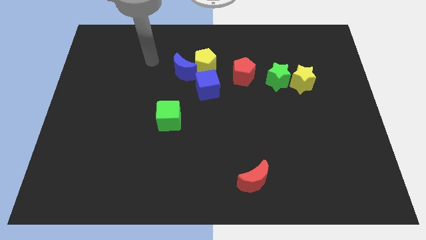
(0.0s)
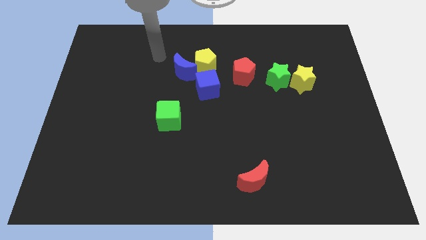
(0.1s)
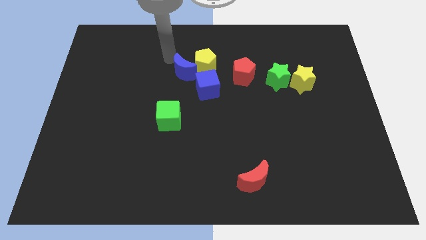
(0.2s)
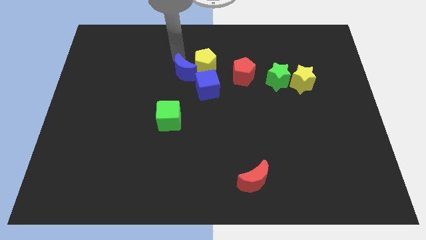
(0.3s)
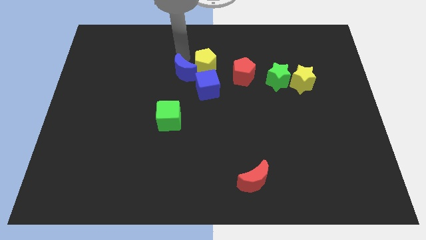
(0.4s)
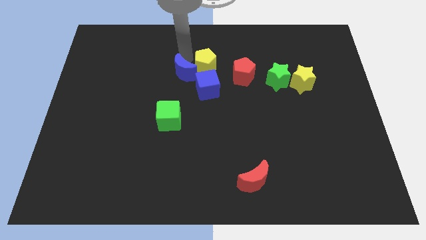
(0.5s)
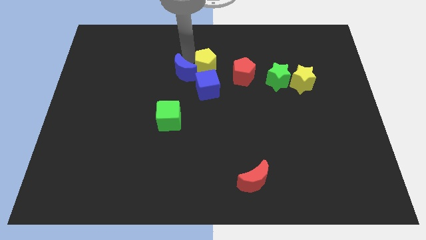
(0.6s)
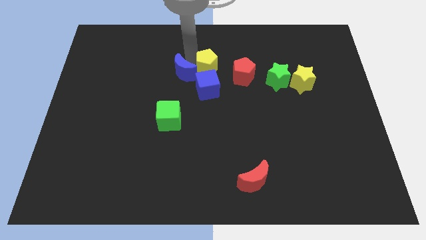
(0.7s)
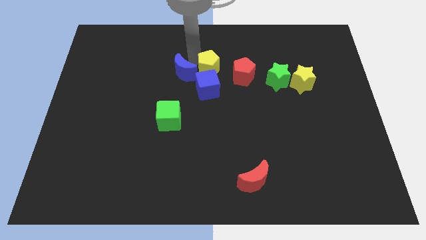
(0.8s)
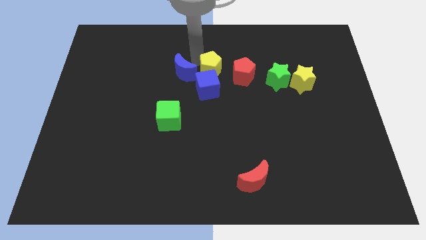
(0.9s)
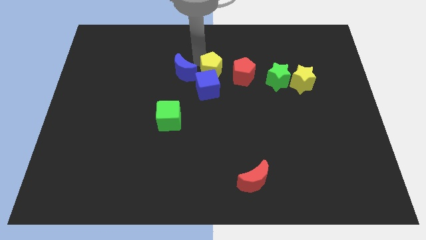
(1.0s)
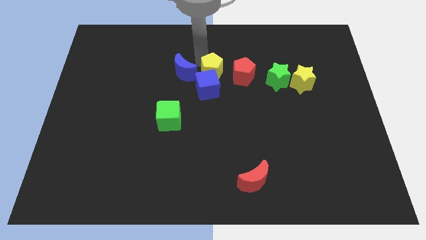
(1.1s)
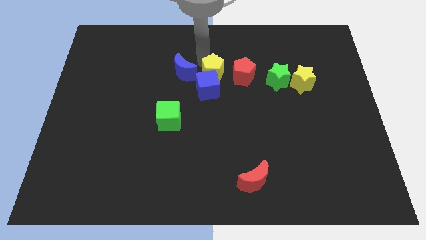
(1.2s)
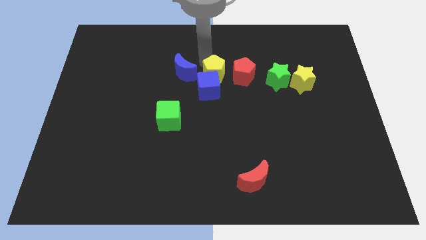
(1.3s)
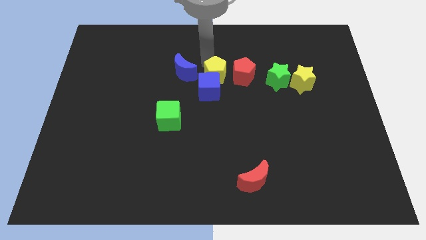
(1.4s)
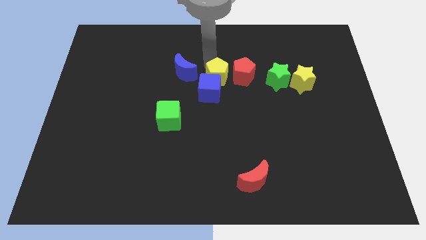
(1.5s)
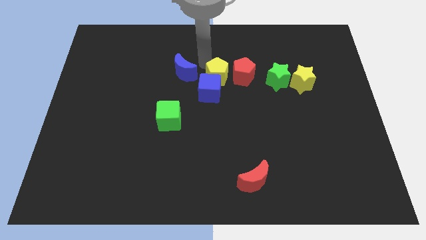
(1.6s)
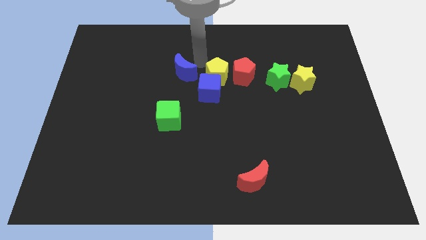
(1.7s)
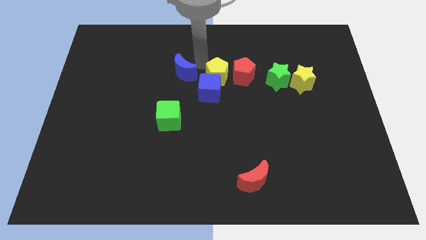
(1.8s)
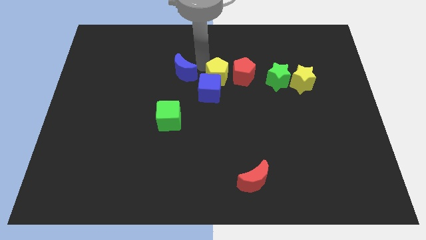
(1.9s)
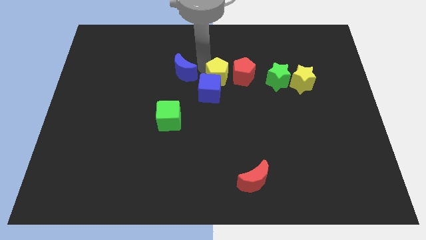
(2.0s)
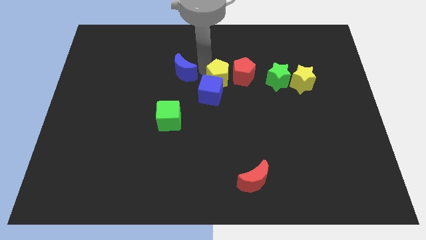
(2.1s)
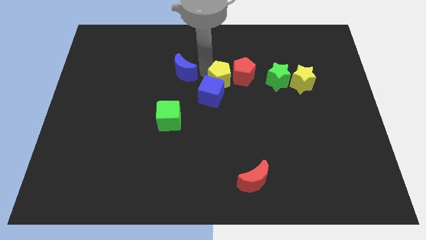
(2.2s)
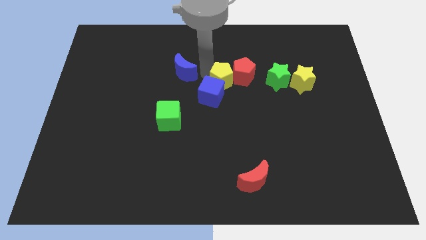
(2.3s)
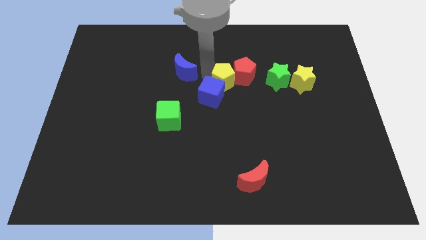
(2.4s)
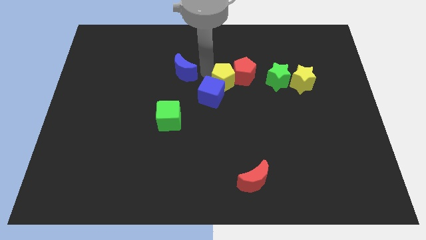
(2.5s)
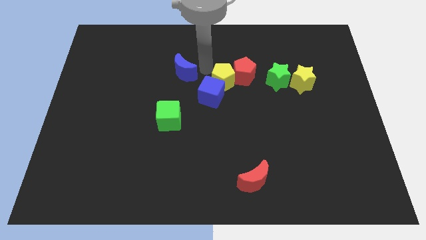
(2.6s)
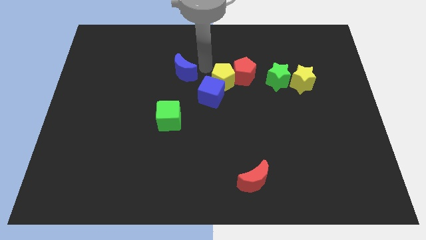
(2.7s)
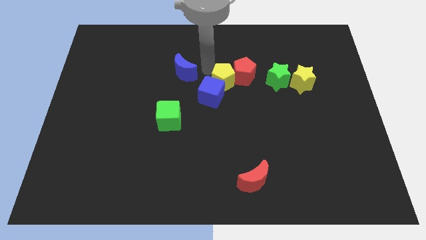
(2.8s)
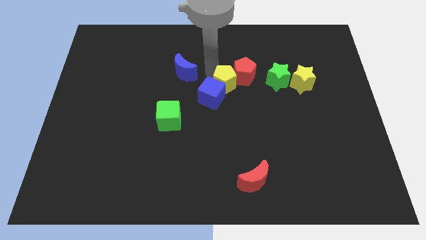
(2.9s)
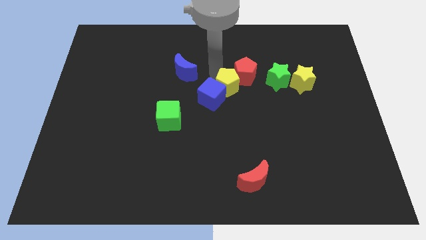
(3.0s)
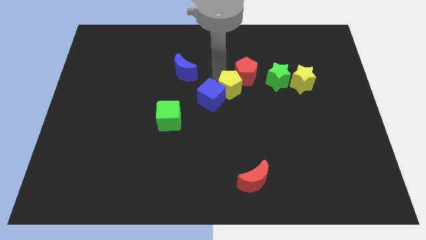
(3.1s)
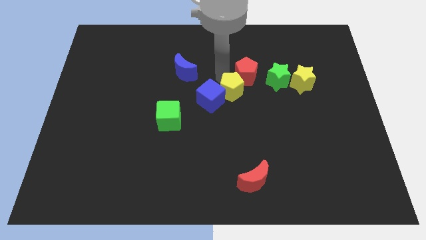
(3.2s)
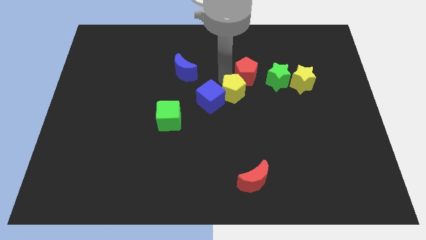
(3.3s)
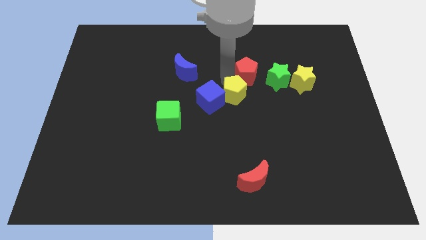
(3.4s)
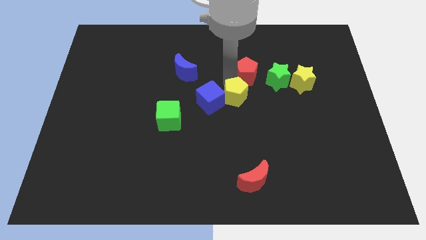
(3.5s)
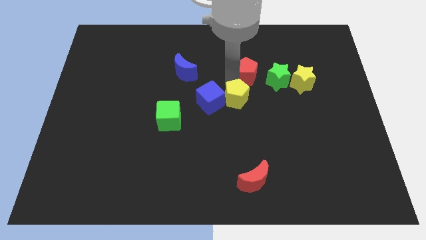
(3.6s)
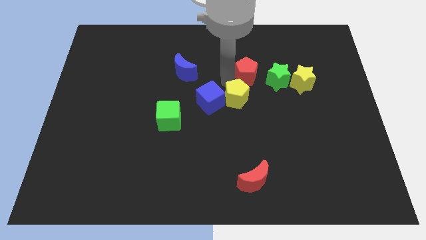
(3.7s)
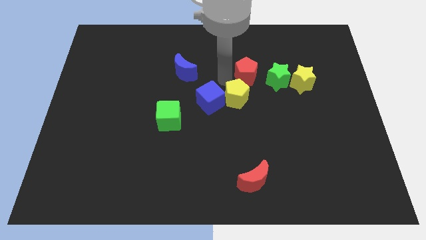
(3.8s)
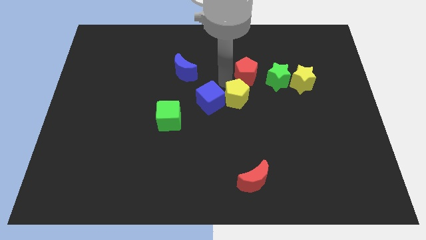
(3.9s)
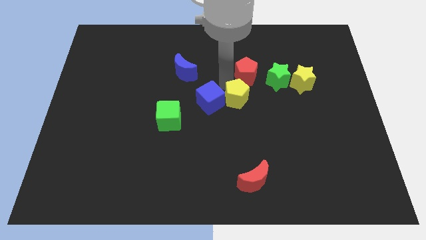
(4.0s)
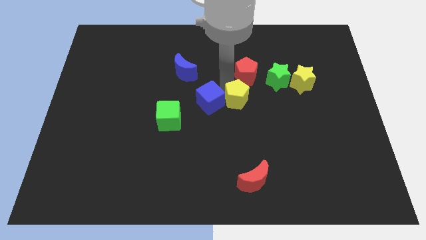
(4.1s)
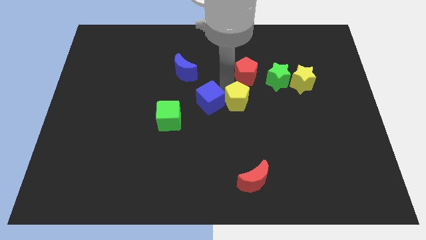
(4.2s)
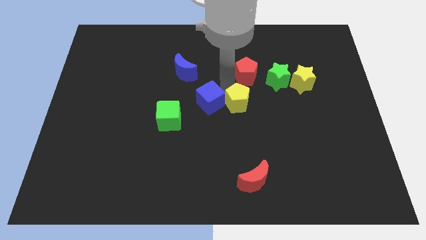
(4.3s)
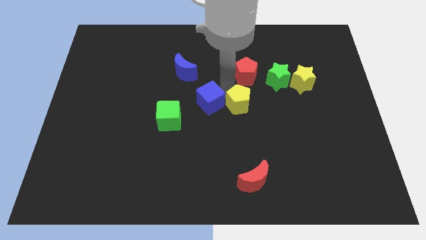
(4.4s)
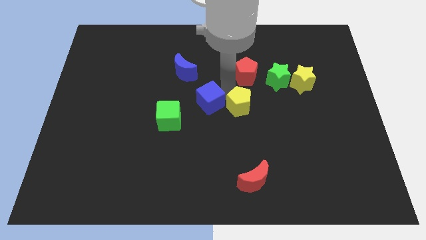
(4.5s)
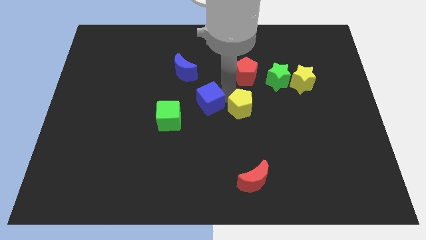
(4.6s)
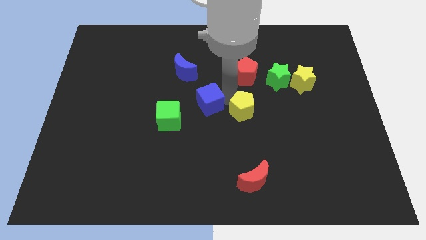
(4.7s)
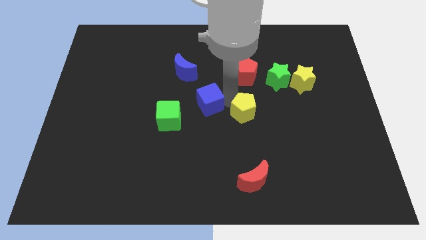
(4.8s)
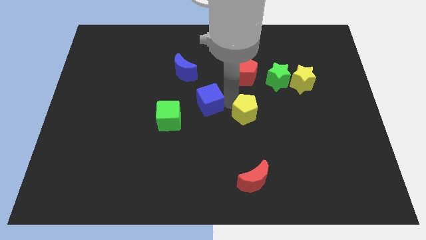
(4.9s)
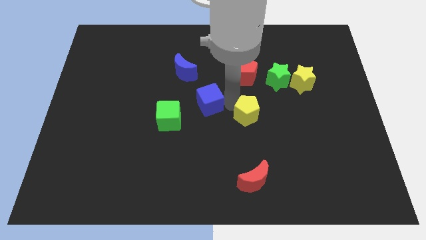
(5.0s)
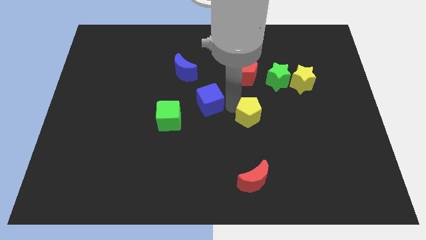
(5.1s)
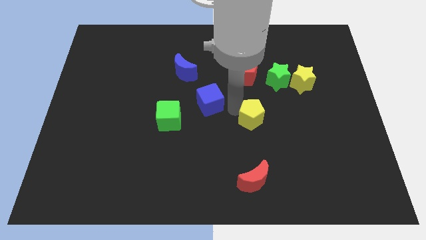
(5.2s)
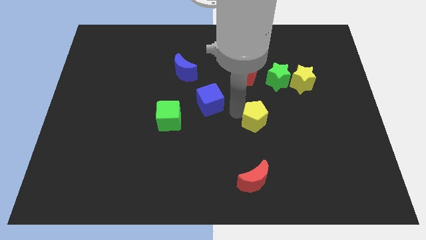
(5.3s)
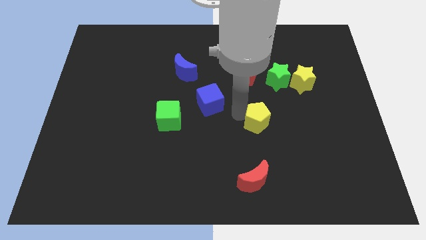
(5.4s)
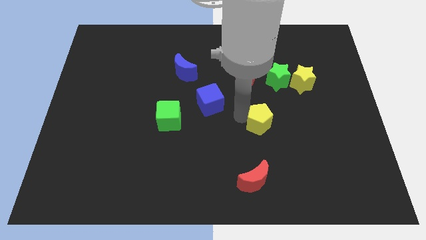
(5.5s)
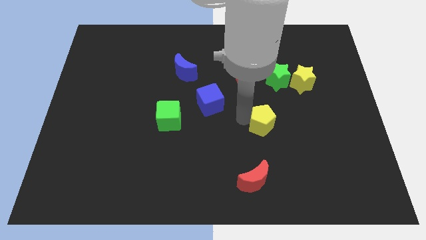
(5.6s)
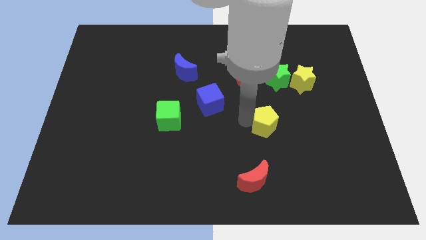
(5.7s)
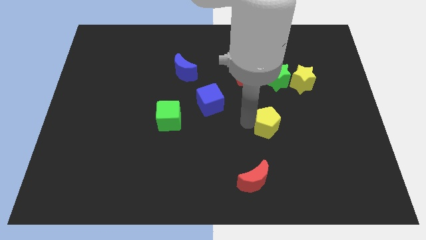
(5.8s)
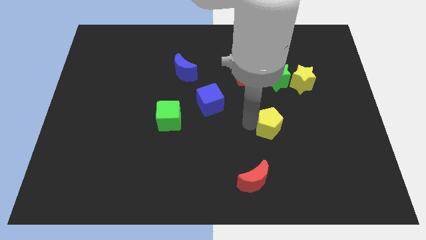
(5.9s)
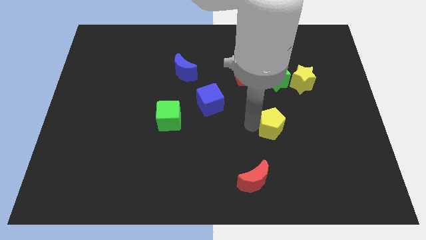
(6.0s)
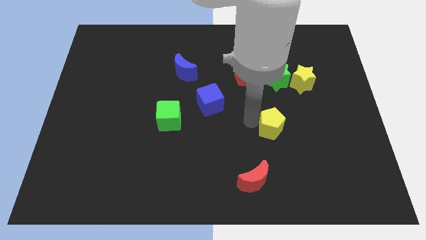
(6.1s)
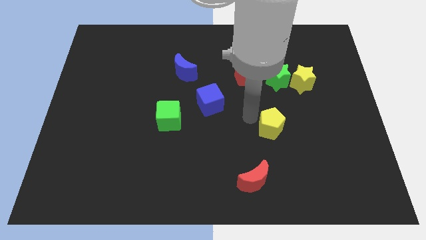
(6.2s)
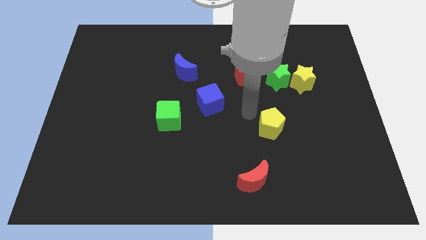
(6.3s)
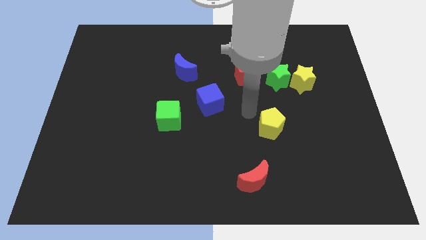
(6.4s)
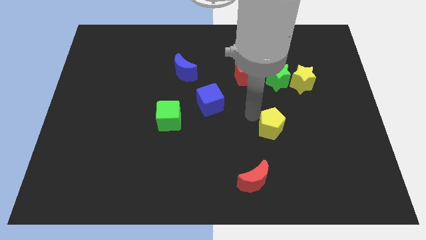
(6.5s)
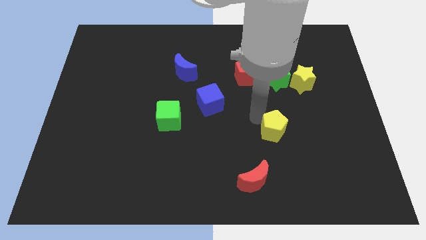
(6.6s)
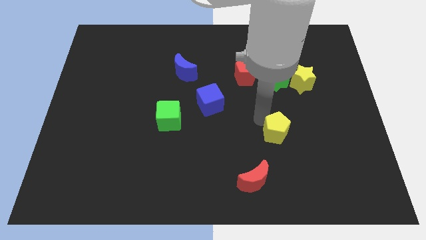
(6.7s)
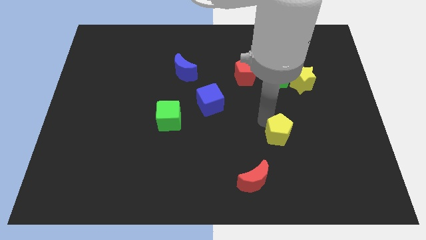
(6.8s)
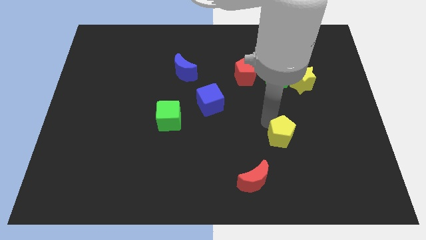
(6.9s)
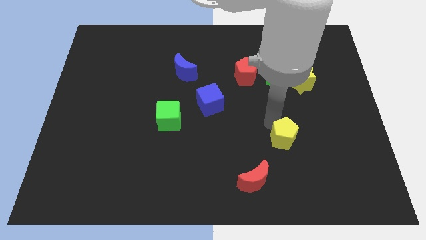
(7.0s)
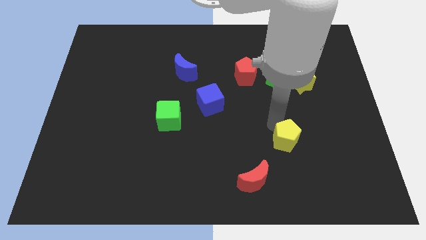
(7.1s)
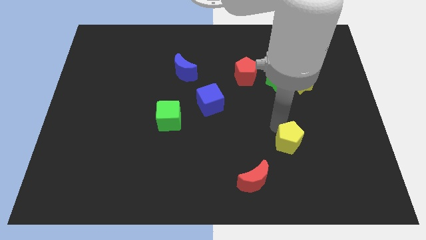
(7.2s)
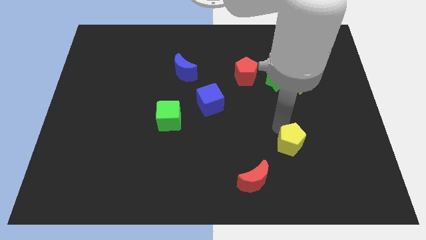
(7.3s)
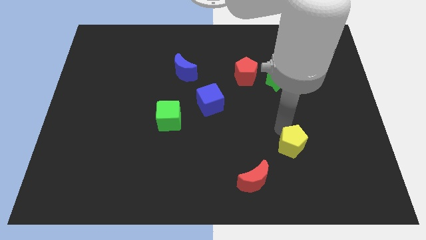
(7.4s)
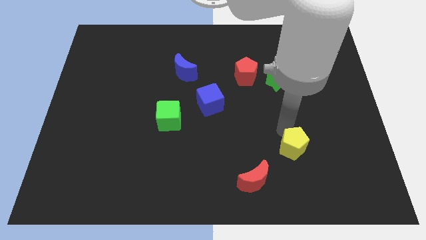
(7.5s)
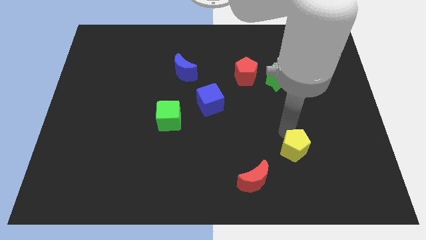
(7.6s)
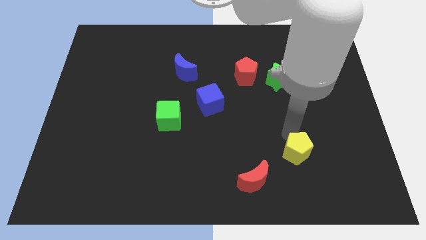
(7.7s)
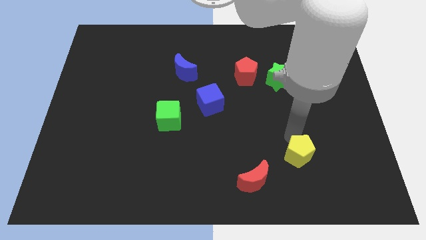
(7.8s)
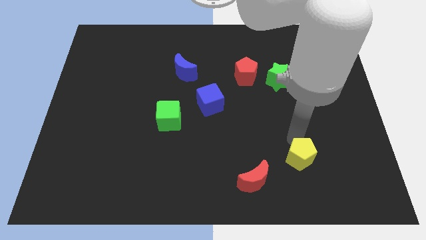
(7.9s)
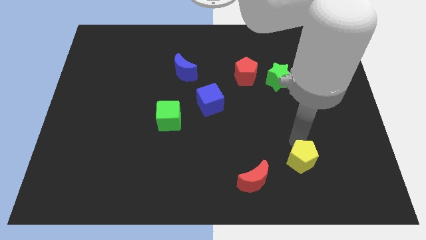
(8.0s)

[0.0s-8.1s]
put the yellow pentagon to the right of the red moon
